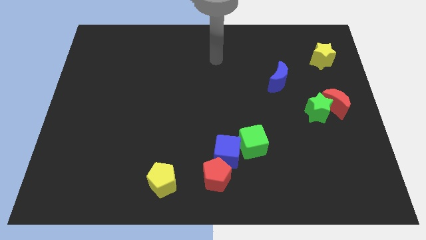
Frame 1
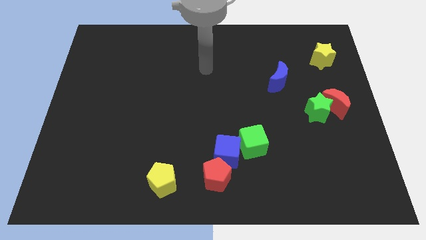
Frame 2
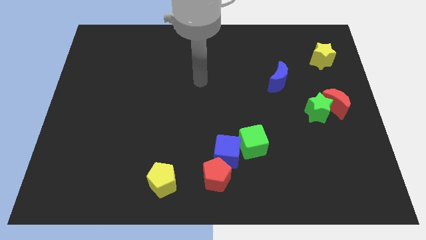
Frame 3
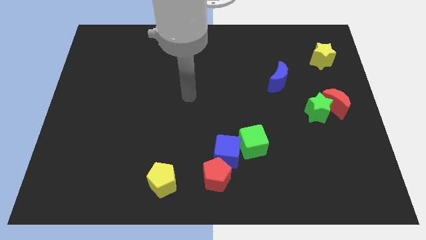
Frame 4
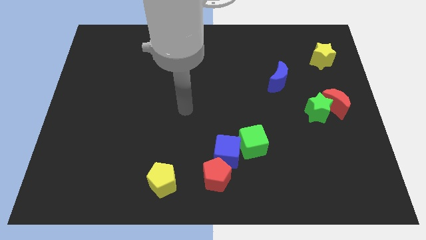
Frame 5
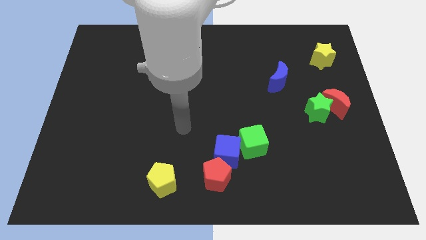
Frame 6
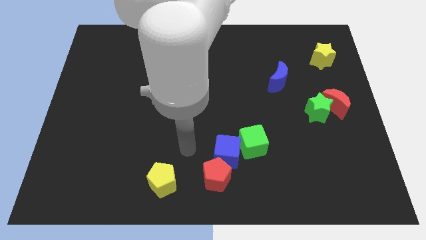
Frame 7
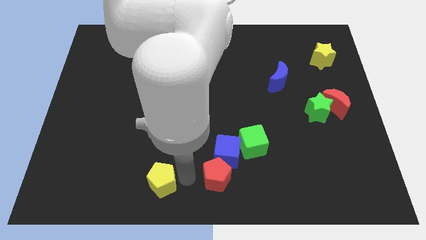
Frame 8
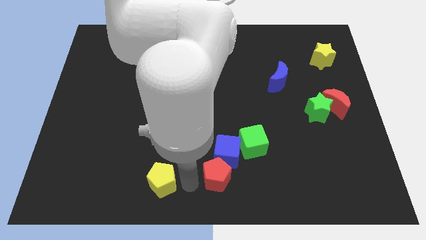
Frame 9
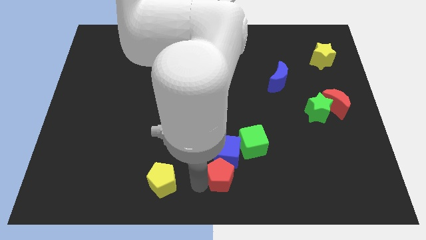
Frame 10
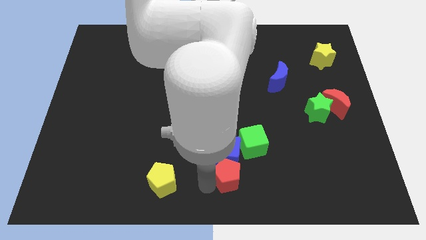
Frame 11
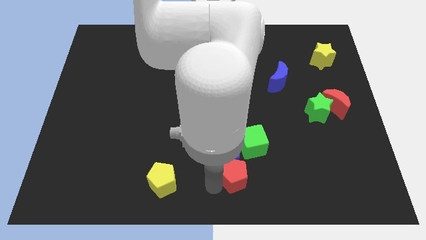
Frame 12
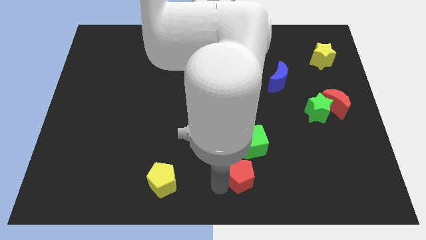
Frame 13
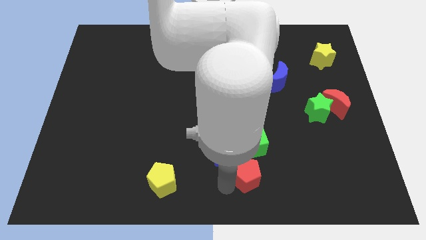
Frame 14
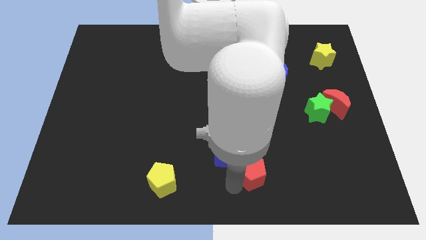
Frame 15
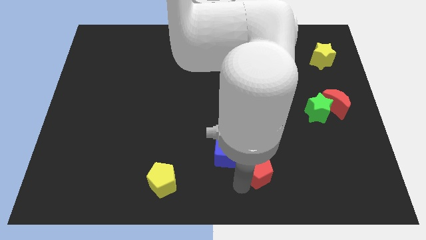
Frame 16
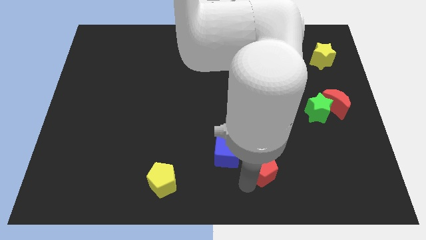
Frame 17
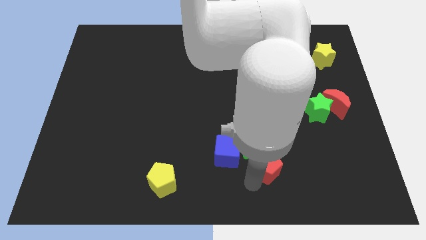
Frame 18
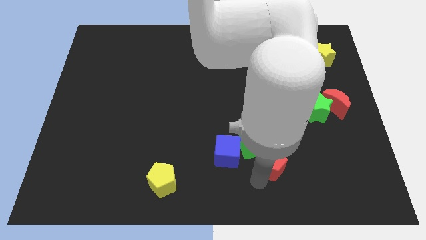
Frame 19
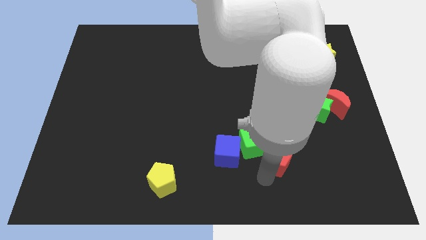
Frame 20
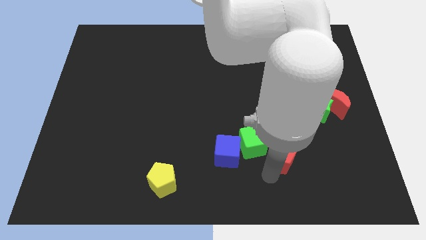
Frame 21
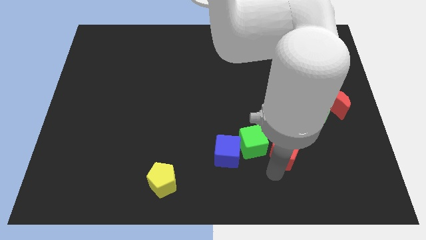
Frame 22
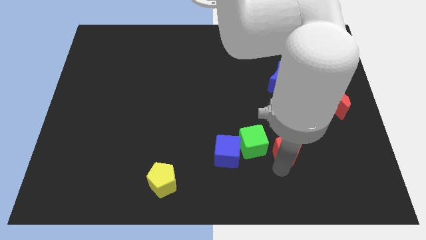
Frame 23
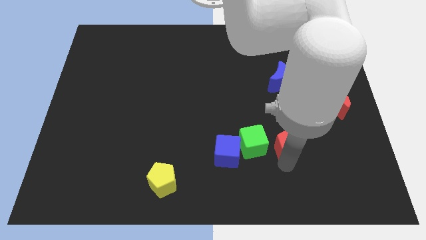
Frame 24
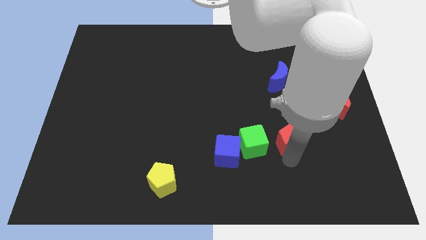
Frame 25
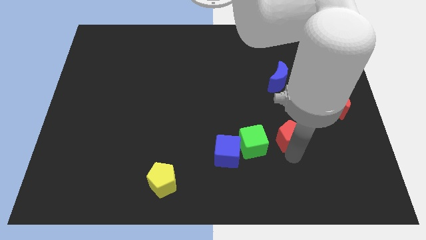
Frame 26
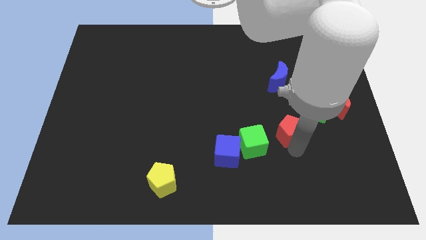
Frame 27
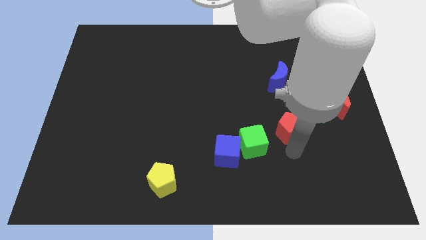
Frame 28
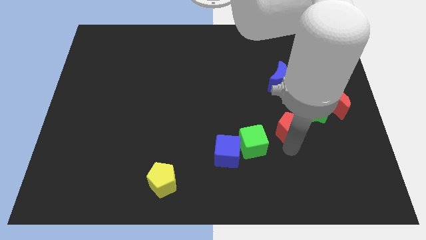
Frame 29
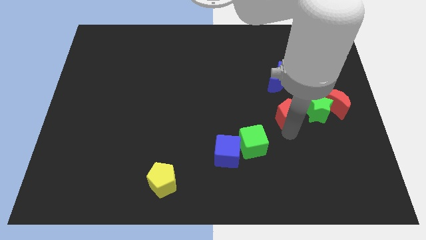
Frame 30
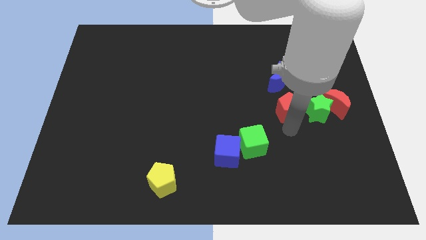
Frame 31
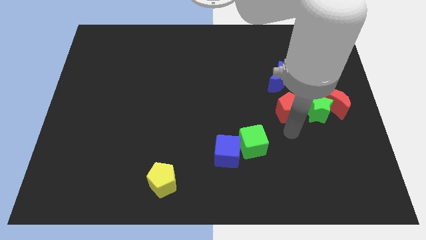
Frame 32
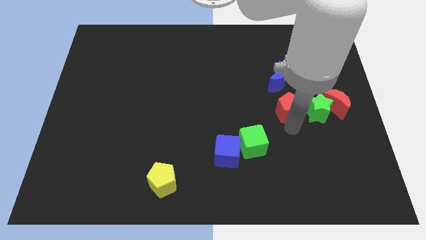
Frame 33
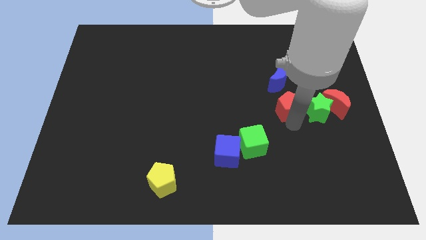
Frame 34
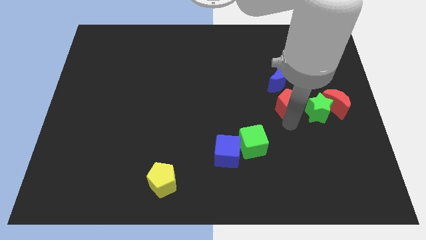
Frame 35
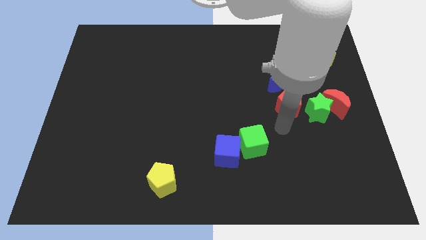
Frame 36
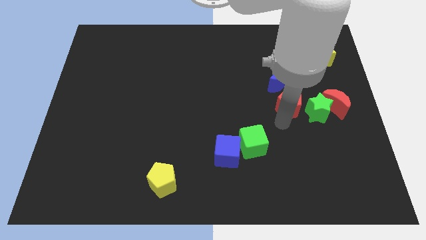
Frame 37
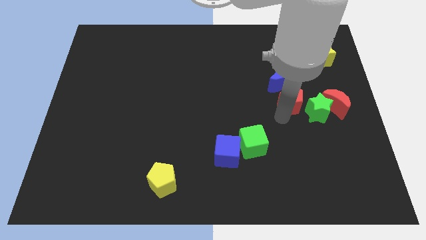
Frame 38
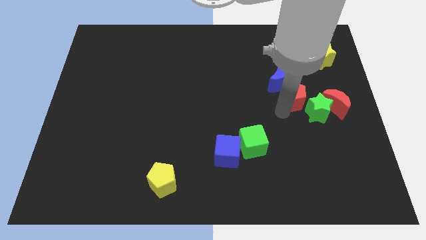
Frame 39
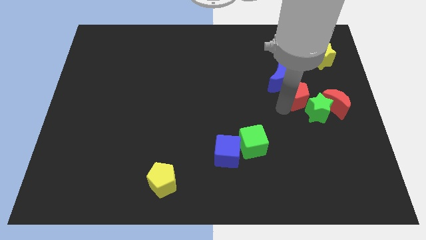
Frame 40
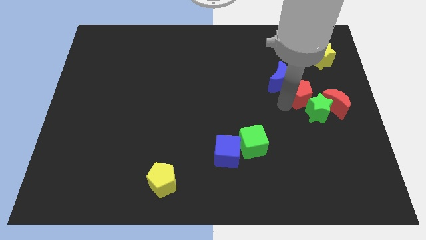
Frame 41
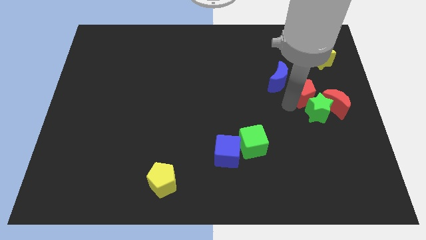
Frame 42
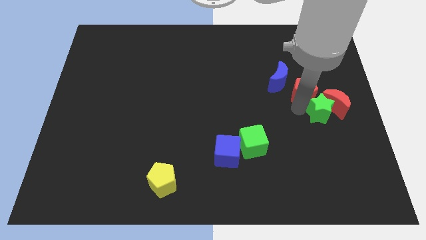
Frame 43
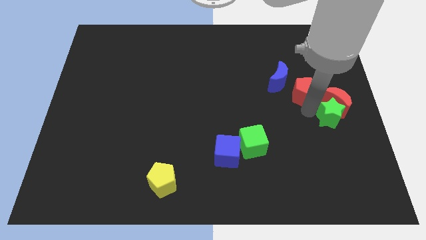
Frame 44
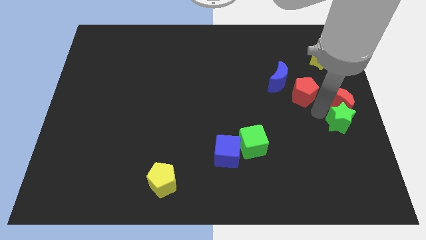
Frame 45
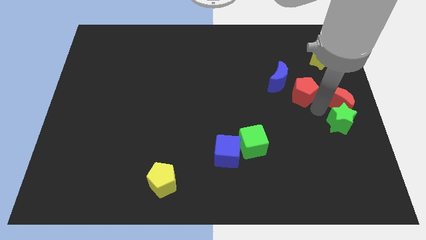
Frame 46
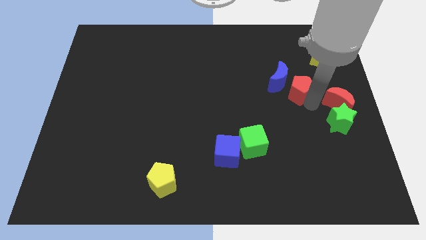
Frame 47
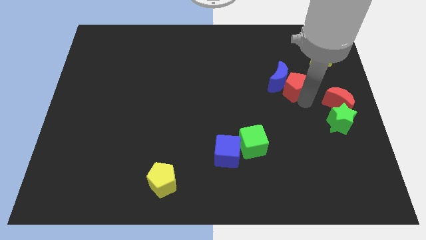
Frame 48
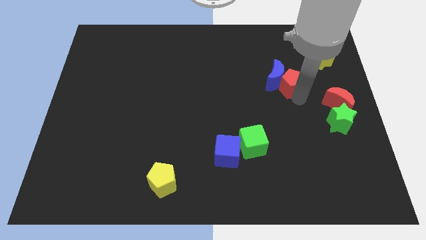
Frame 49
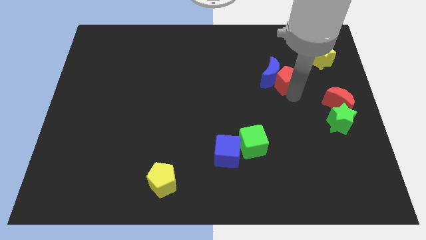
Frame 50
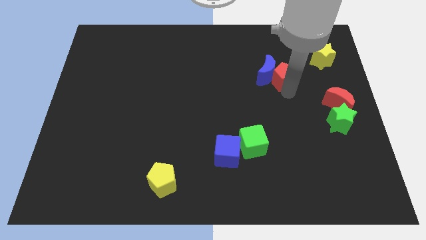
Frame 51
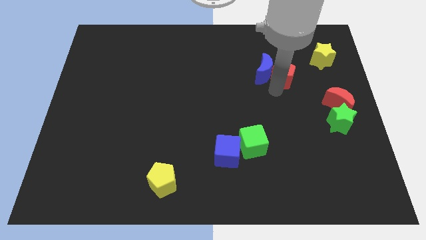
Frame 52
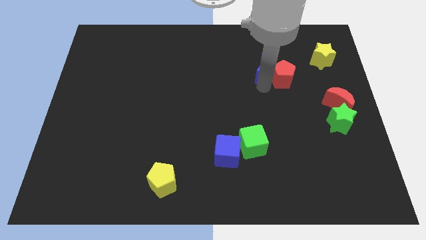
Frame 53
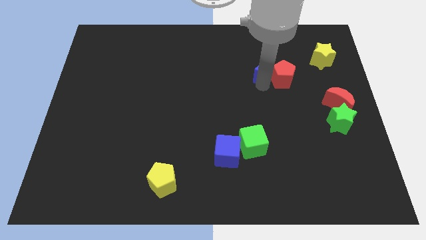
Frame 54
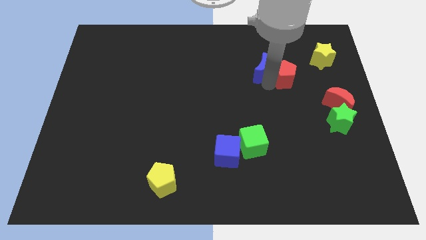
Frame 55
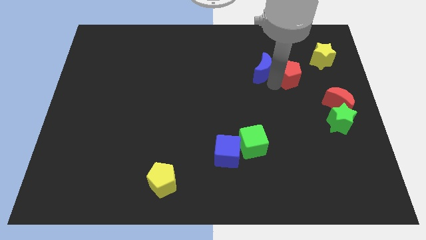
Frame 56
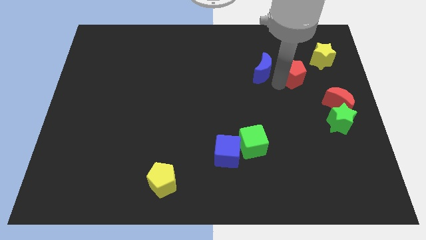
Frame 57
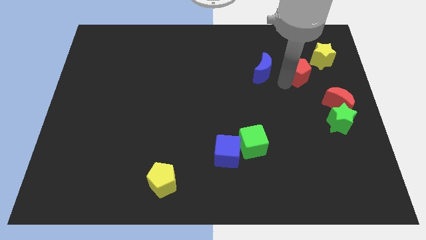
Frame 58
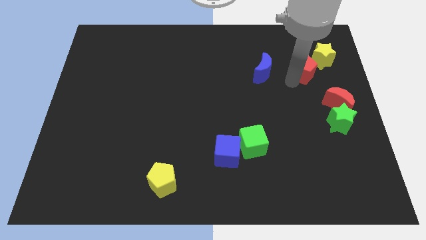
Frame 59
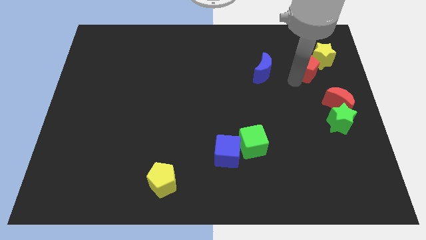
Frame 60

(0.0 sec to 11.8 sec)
put the red pentagon to the yellow star

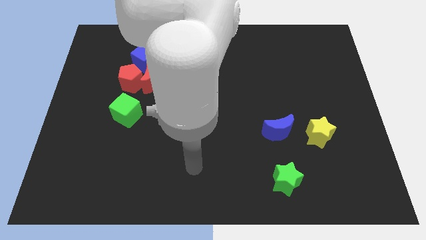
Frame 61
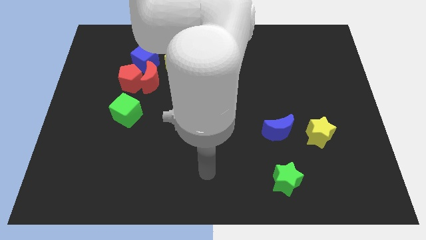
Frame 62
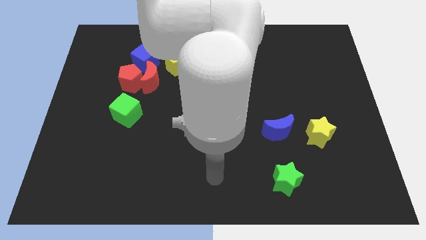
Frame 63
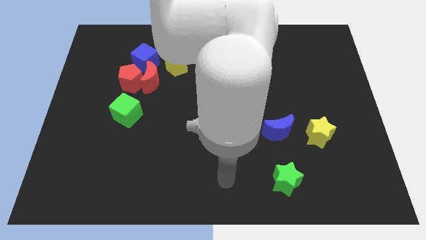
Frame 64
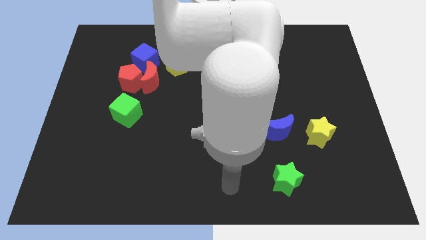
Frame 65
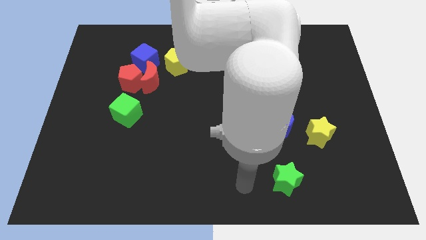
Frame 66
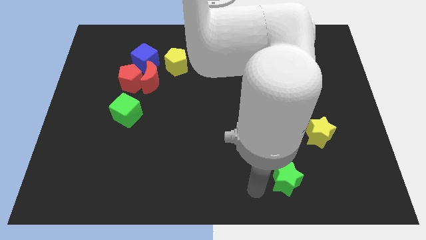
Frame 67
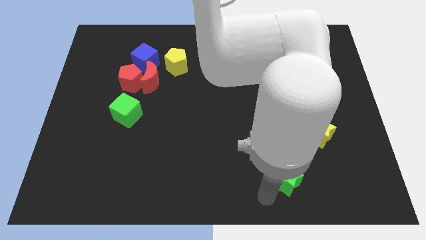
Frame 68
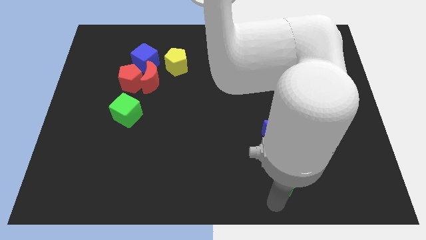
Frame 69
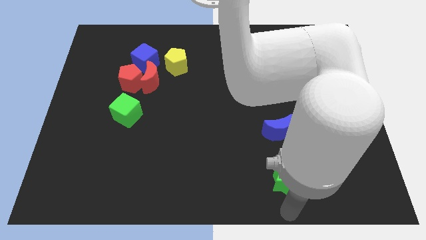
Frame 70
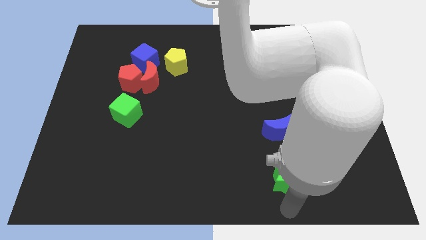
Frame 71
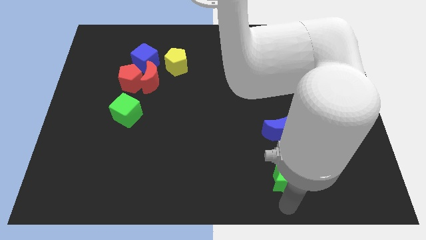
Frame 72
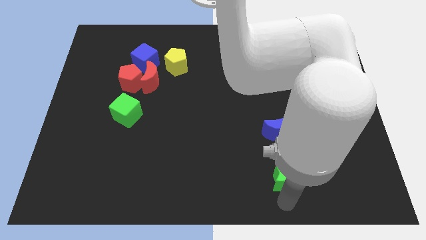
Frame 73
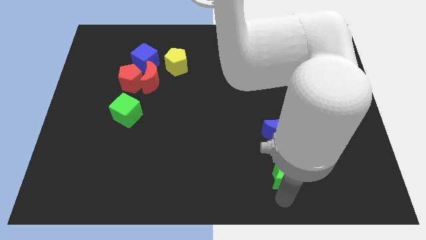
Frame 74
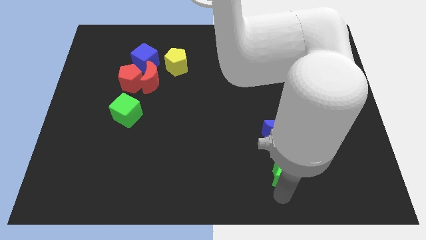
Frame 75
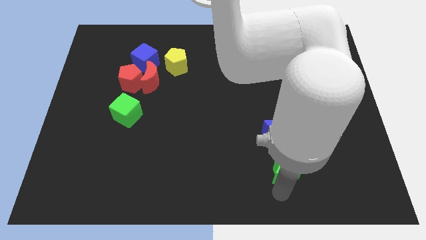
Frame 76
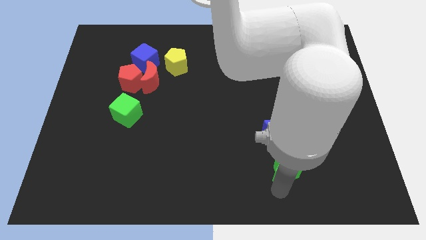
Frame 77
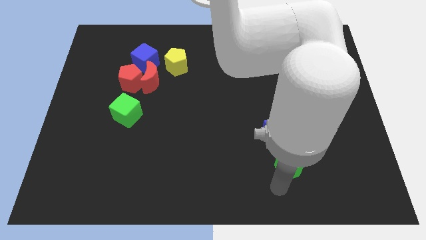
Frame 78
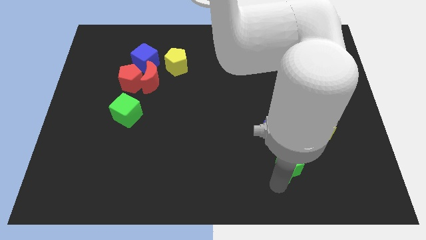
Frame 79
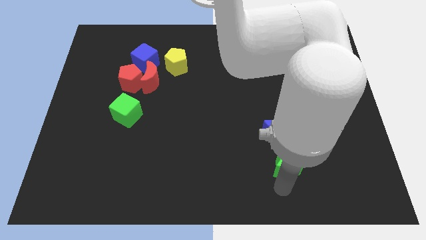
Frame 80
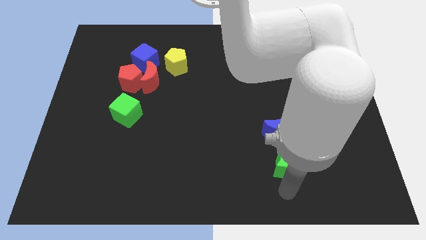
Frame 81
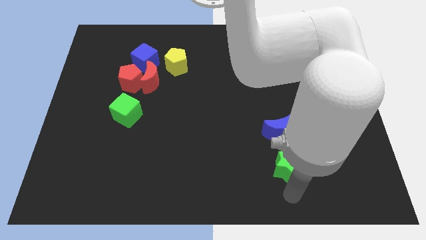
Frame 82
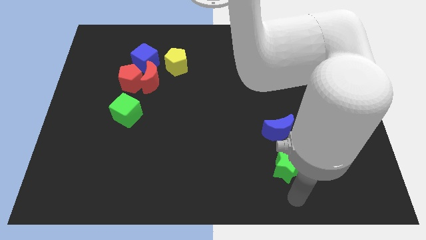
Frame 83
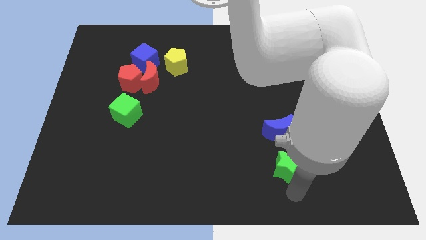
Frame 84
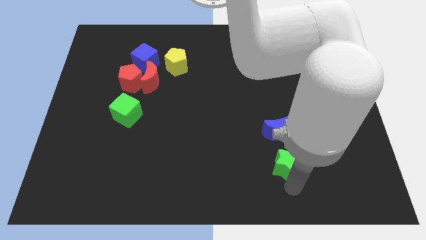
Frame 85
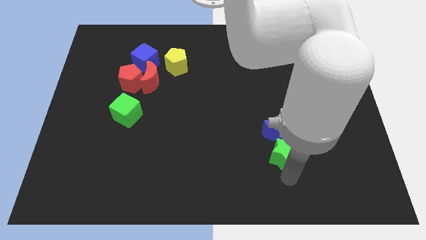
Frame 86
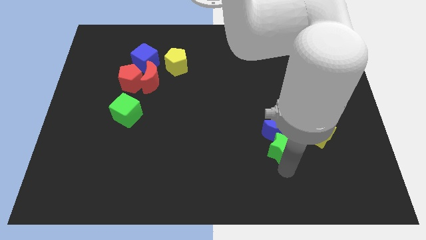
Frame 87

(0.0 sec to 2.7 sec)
push the green star towards the blue moon
